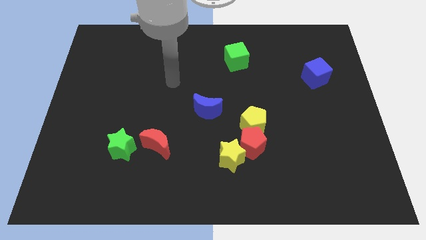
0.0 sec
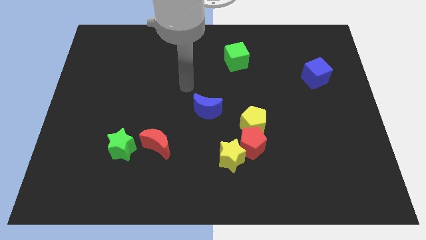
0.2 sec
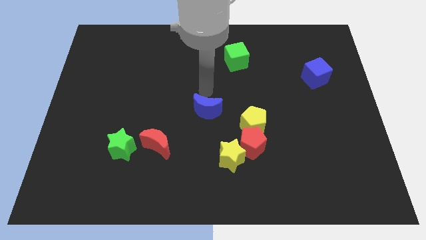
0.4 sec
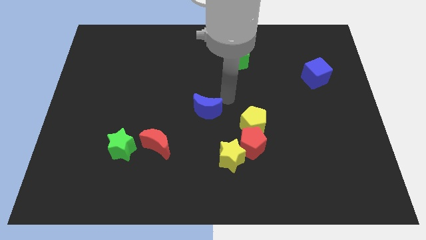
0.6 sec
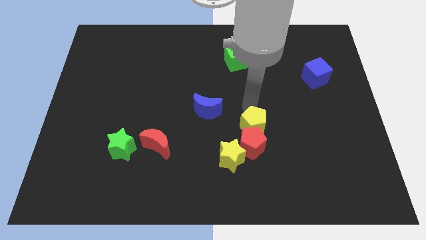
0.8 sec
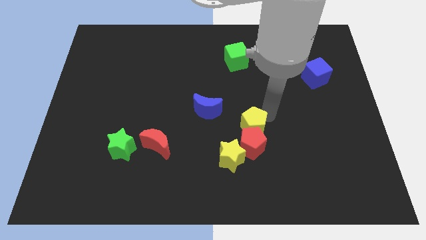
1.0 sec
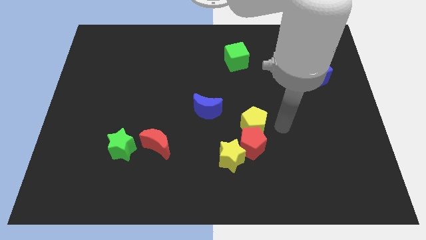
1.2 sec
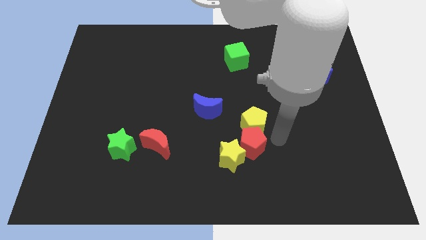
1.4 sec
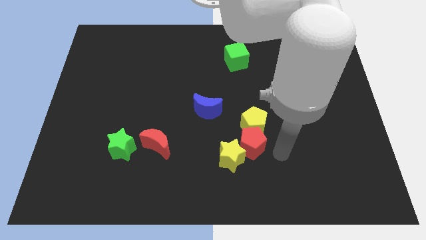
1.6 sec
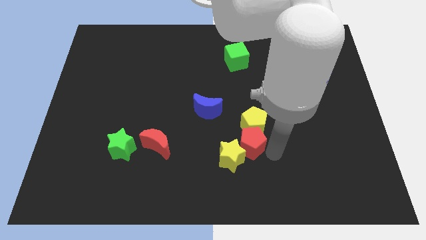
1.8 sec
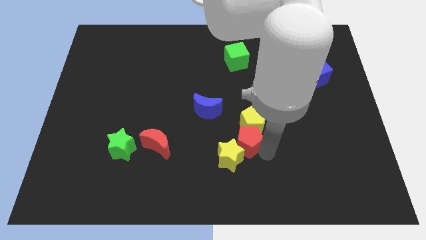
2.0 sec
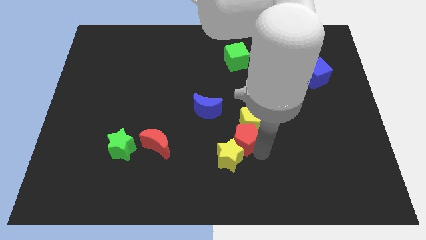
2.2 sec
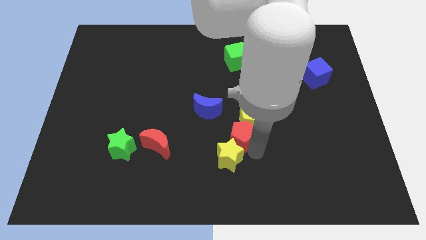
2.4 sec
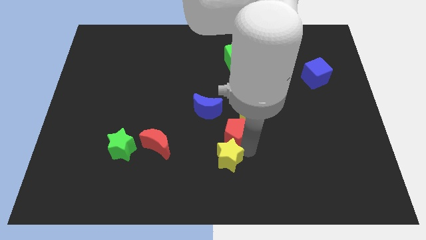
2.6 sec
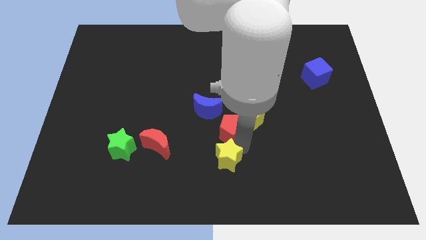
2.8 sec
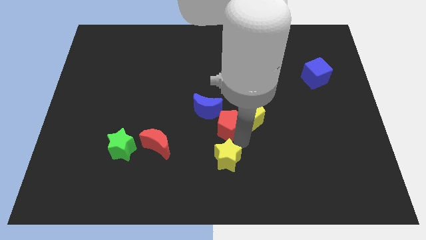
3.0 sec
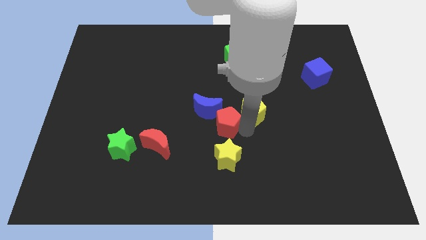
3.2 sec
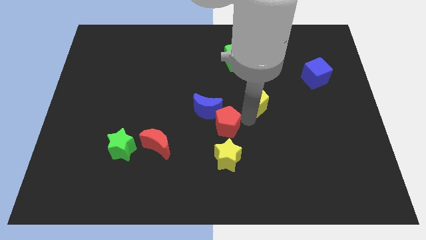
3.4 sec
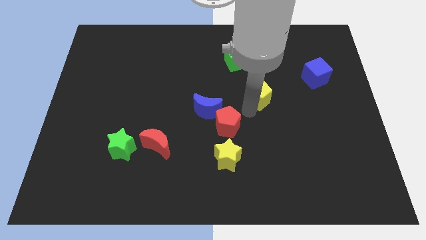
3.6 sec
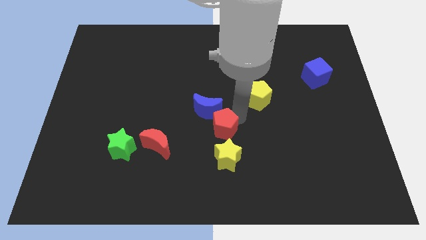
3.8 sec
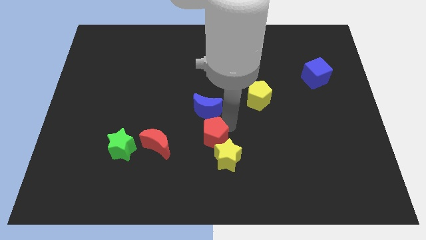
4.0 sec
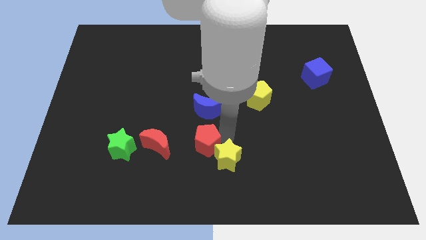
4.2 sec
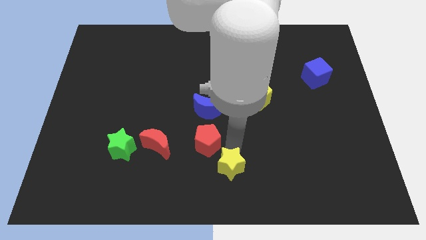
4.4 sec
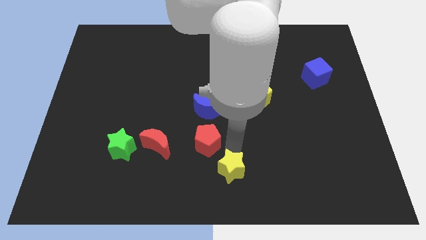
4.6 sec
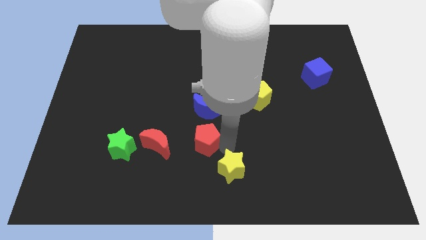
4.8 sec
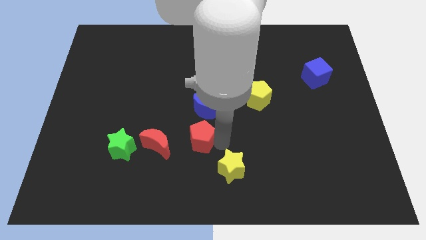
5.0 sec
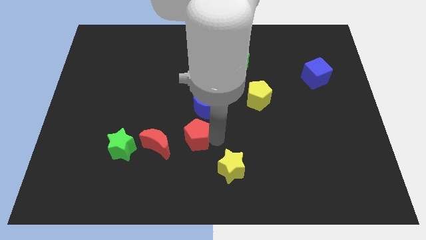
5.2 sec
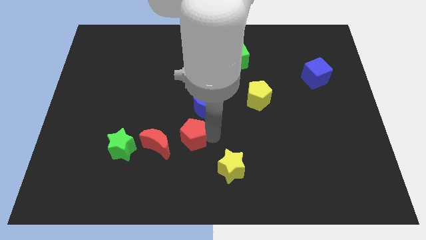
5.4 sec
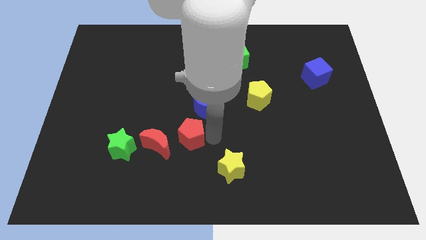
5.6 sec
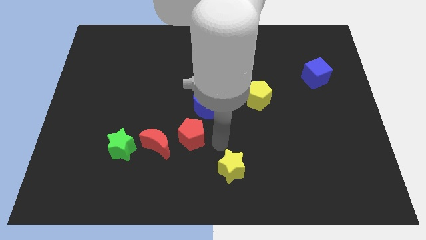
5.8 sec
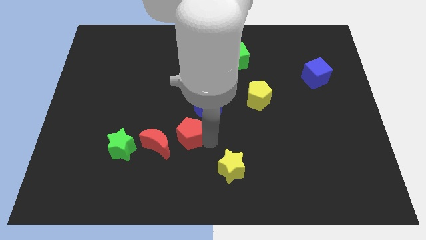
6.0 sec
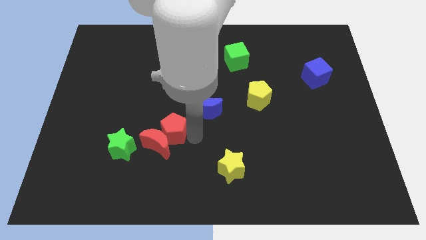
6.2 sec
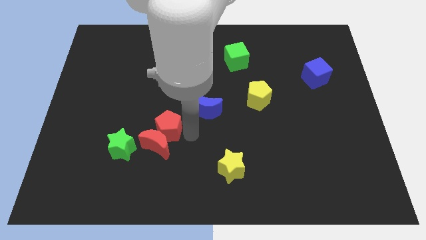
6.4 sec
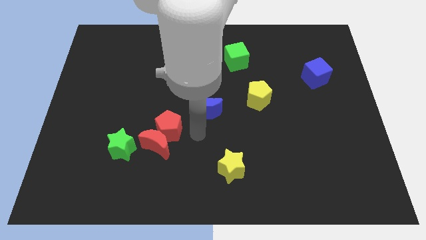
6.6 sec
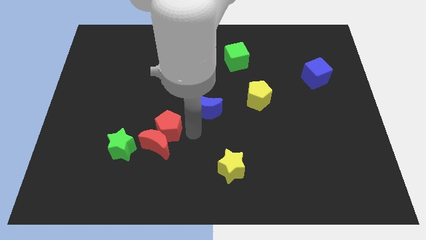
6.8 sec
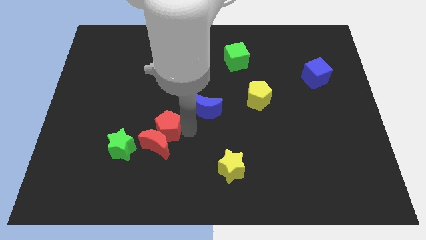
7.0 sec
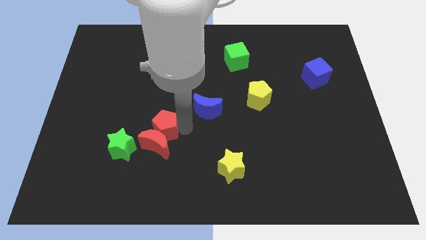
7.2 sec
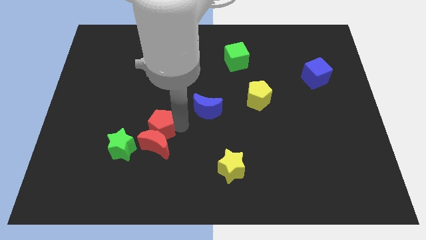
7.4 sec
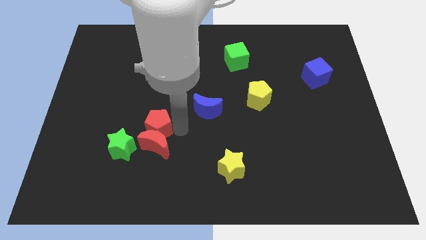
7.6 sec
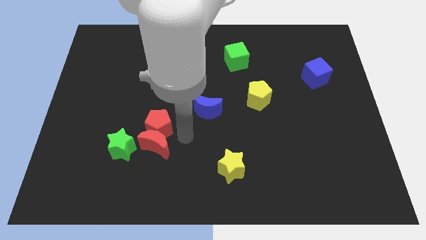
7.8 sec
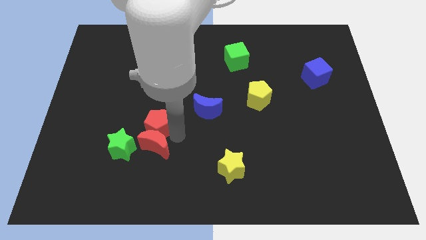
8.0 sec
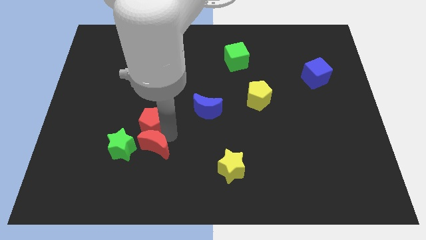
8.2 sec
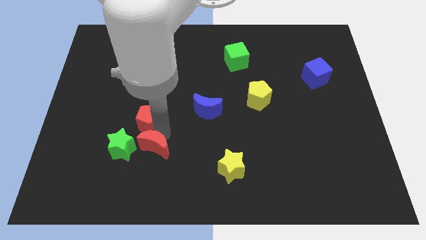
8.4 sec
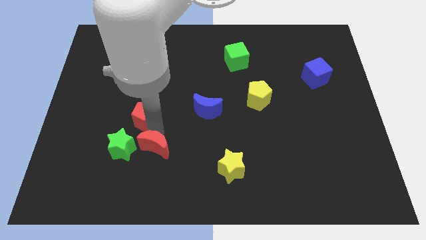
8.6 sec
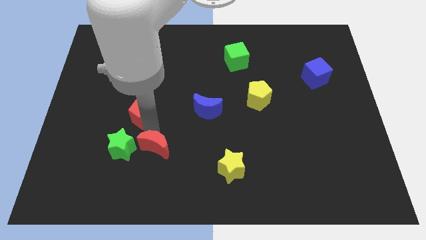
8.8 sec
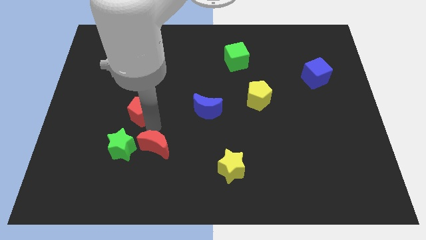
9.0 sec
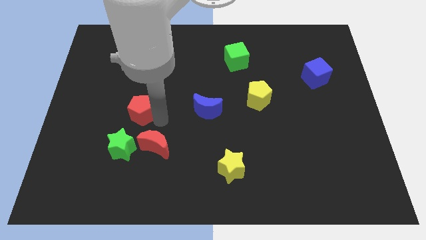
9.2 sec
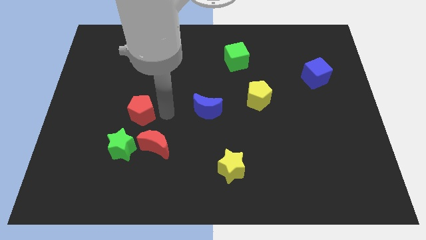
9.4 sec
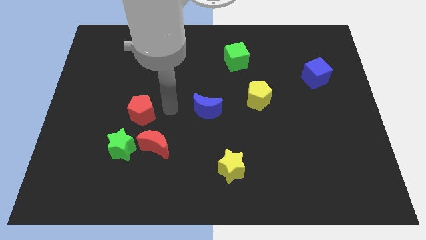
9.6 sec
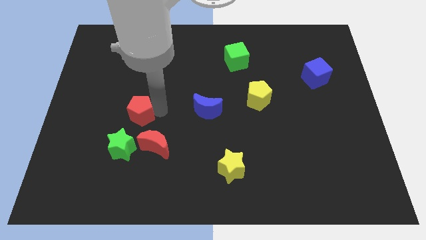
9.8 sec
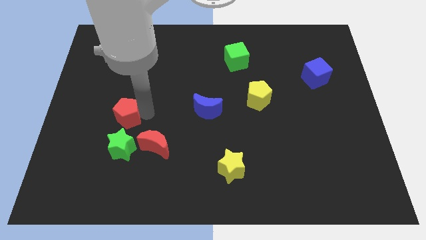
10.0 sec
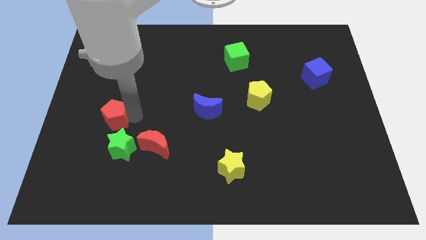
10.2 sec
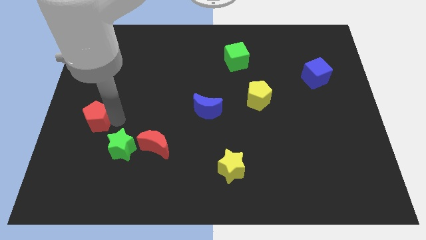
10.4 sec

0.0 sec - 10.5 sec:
push the red pentagon to the left side

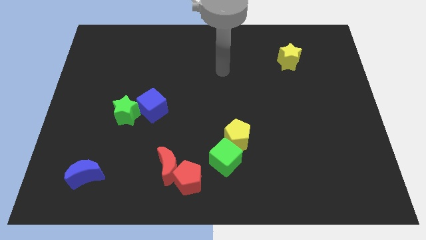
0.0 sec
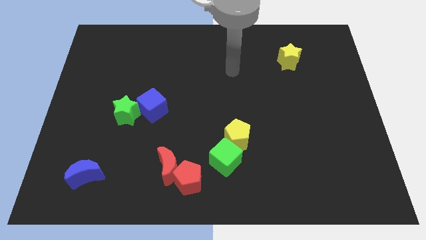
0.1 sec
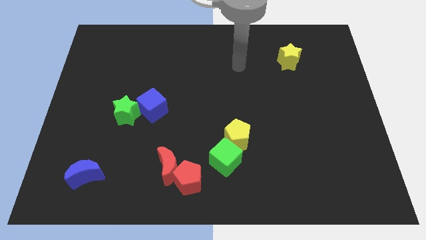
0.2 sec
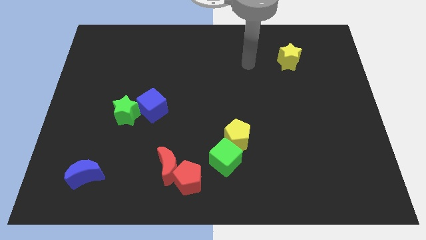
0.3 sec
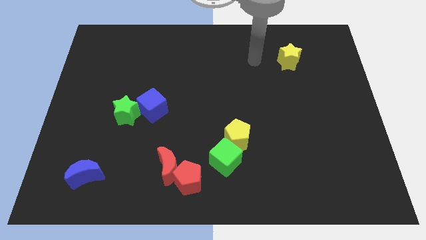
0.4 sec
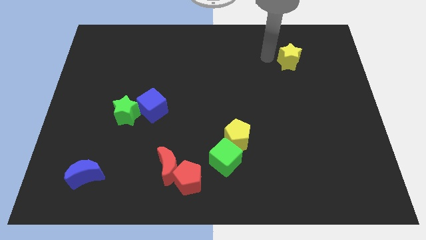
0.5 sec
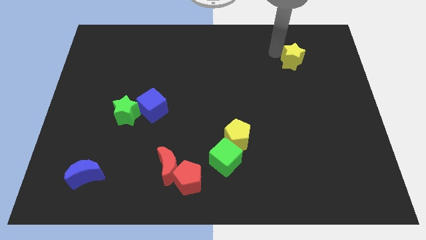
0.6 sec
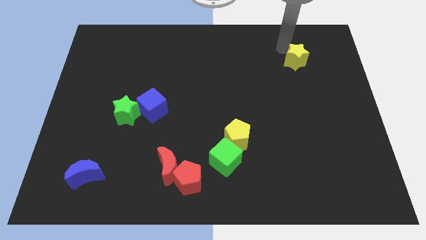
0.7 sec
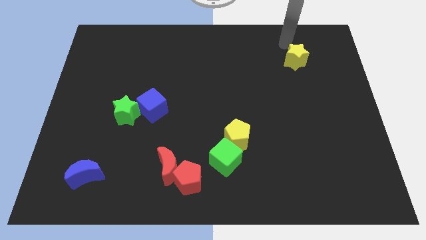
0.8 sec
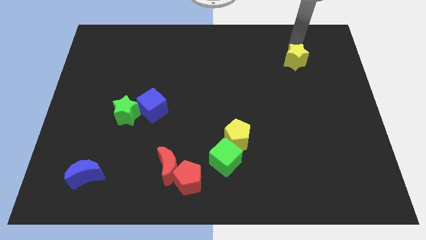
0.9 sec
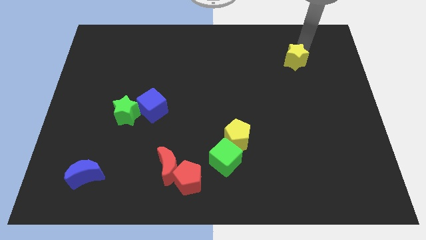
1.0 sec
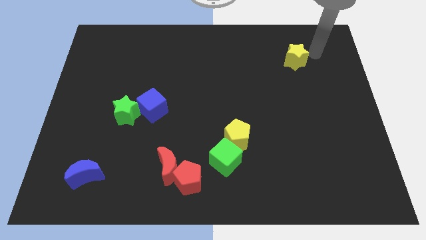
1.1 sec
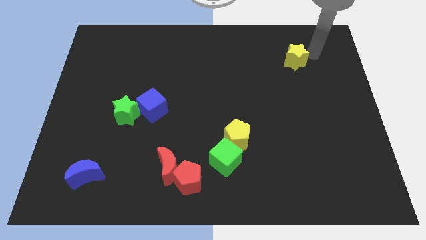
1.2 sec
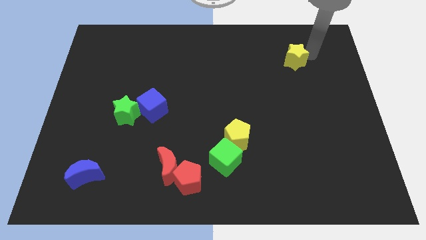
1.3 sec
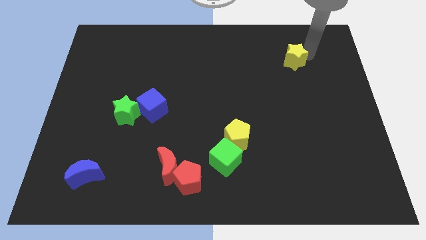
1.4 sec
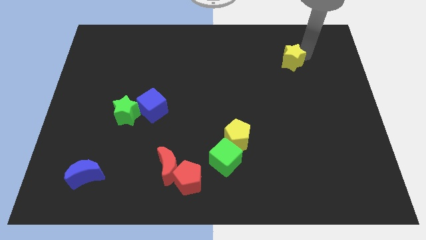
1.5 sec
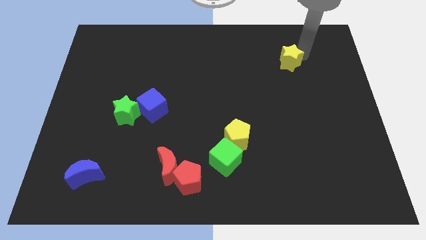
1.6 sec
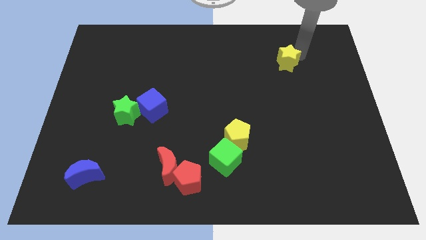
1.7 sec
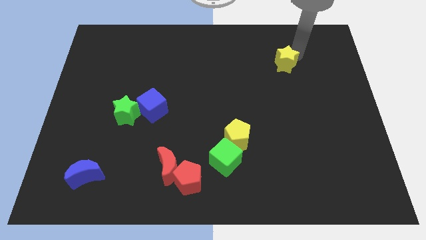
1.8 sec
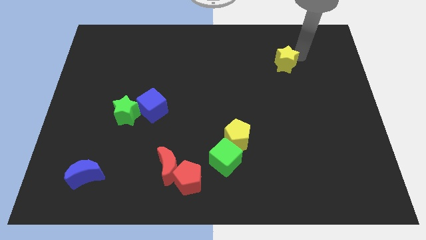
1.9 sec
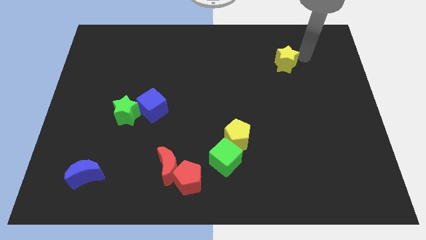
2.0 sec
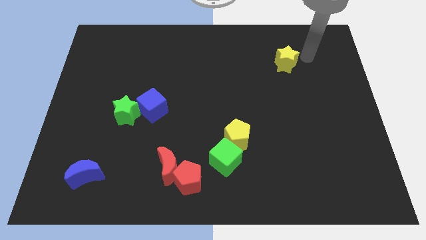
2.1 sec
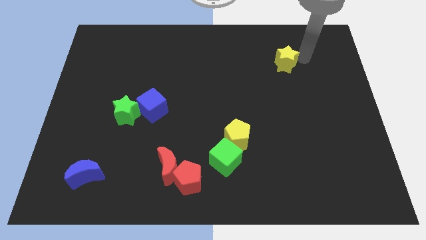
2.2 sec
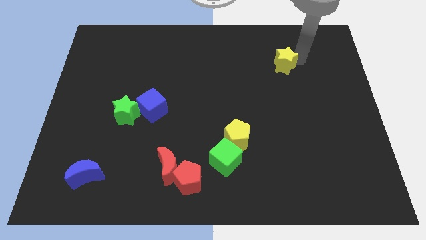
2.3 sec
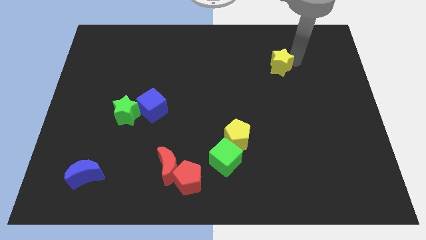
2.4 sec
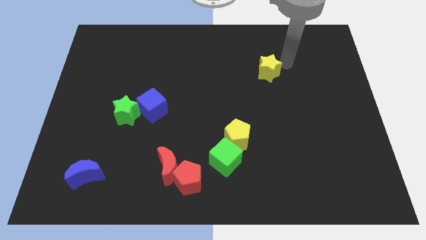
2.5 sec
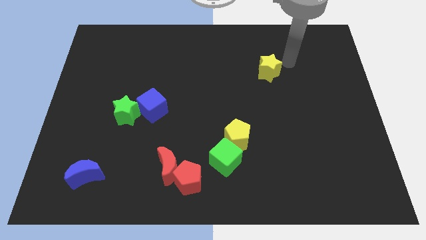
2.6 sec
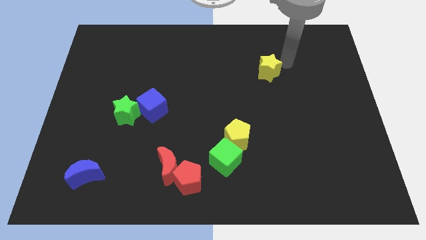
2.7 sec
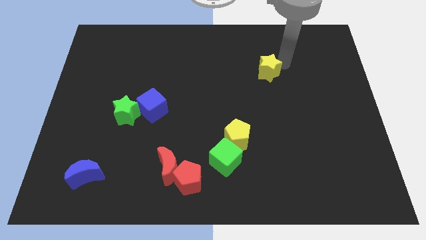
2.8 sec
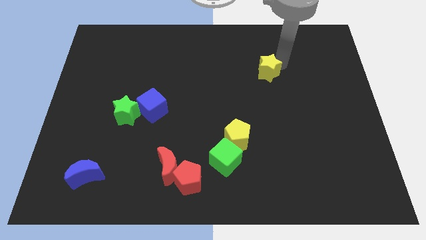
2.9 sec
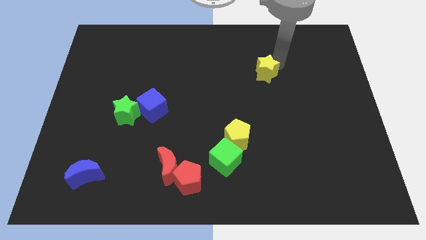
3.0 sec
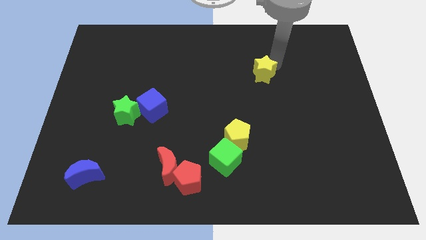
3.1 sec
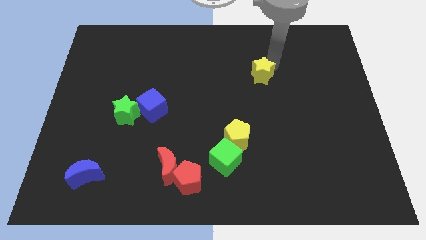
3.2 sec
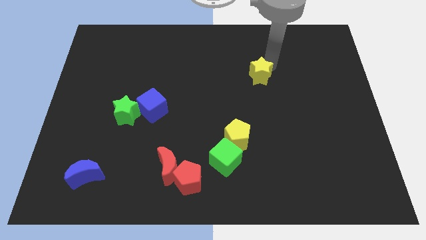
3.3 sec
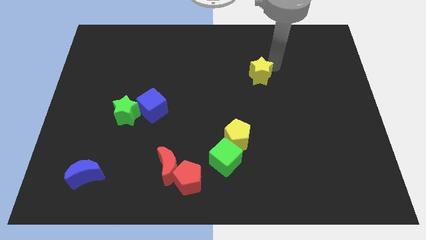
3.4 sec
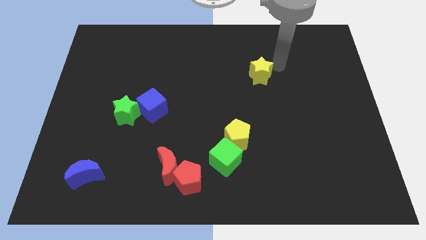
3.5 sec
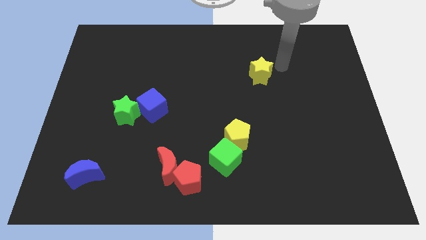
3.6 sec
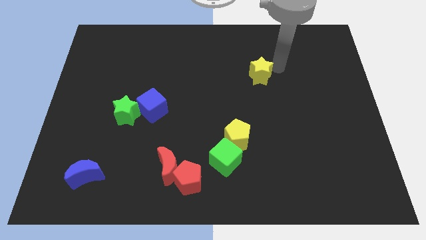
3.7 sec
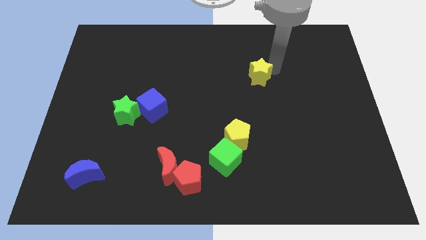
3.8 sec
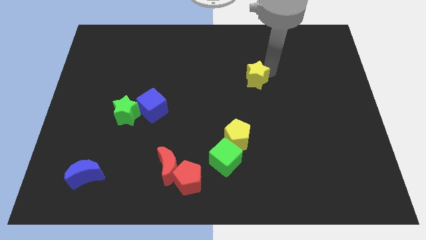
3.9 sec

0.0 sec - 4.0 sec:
put the yellow star to the center
